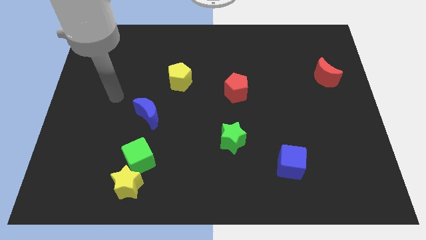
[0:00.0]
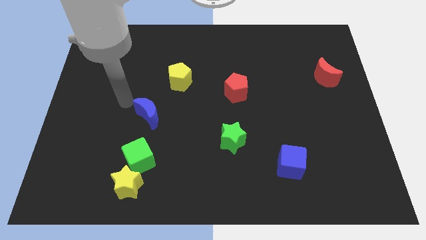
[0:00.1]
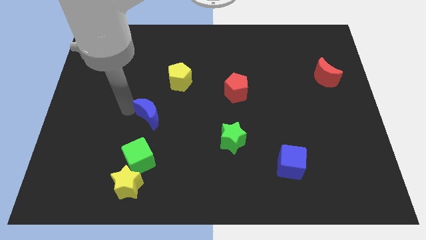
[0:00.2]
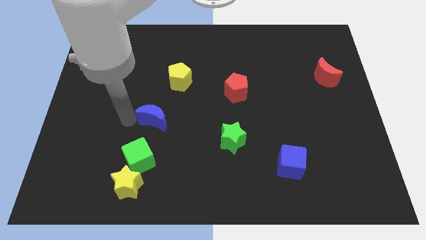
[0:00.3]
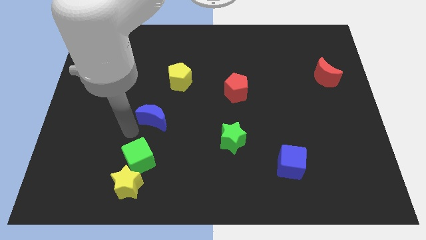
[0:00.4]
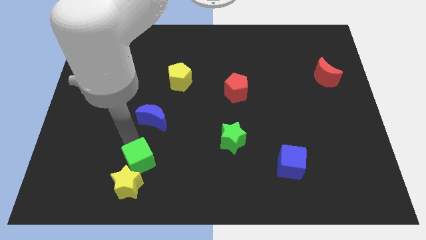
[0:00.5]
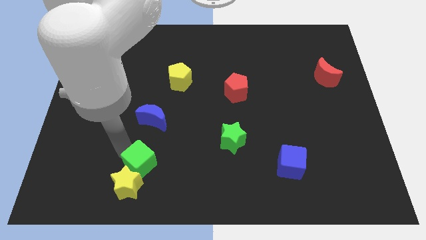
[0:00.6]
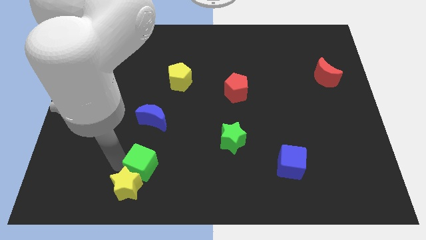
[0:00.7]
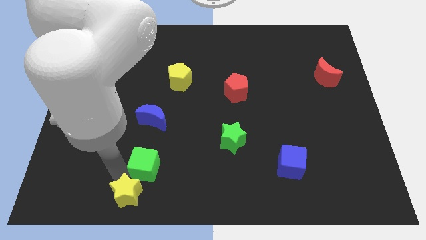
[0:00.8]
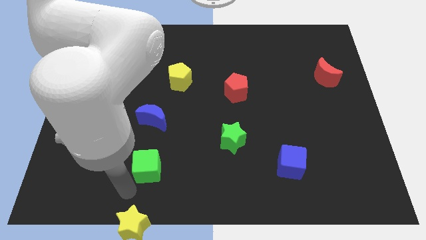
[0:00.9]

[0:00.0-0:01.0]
separate the green cube from the yellow star

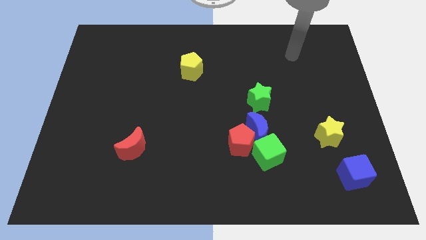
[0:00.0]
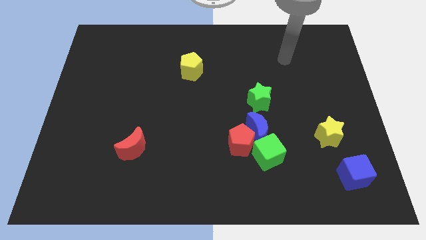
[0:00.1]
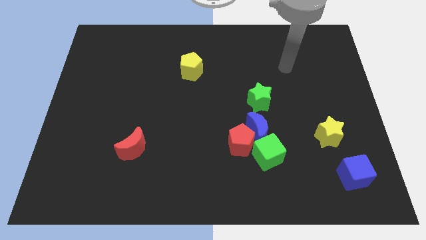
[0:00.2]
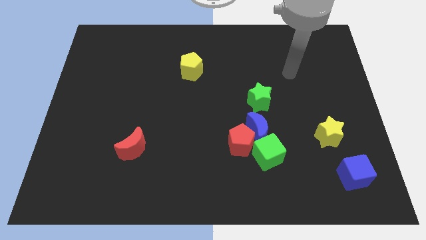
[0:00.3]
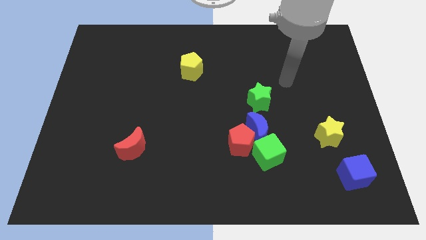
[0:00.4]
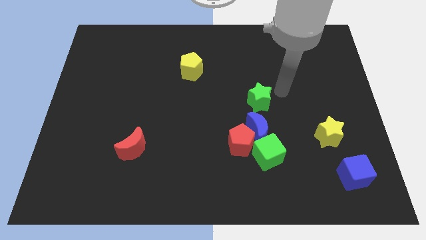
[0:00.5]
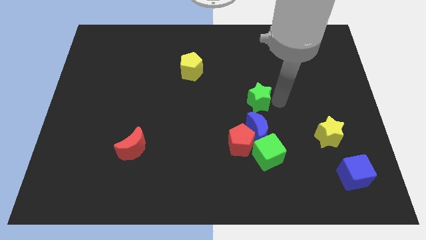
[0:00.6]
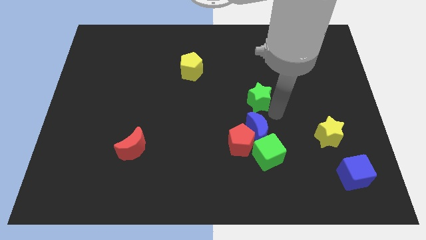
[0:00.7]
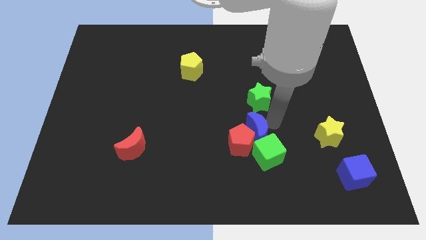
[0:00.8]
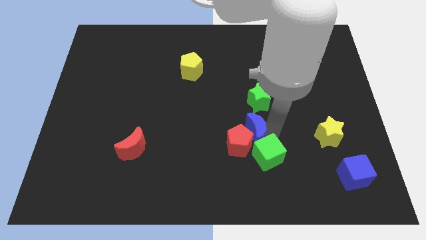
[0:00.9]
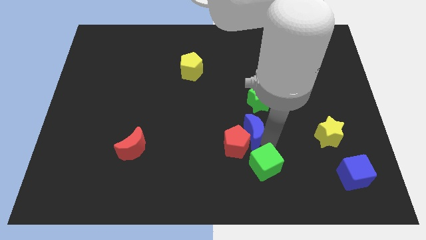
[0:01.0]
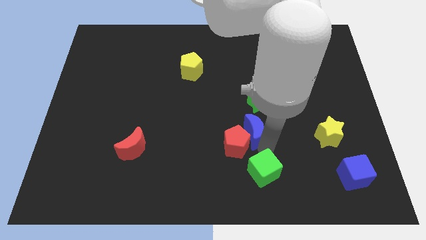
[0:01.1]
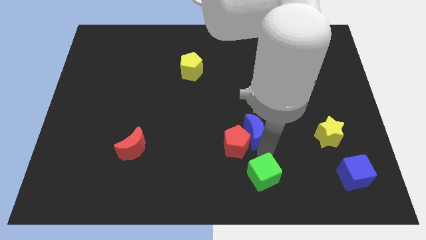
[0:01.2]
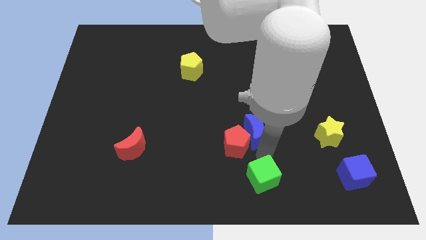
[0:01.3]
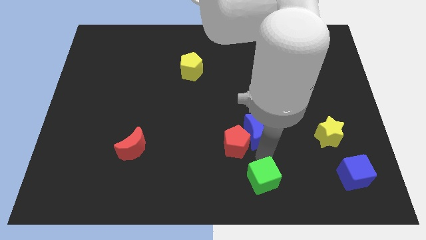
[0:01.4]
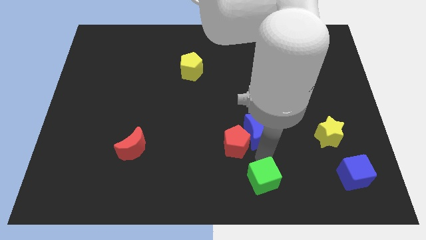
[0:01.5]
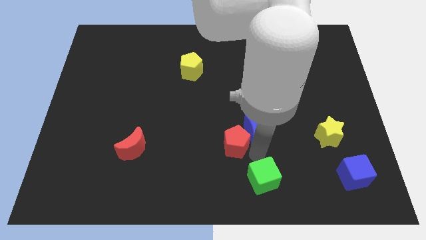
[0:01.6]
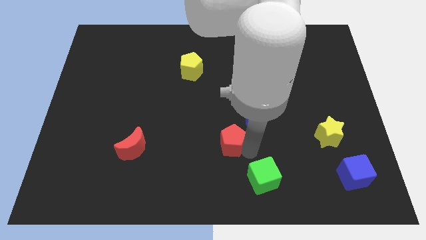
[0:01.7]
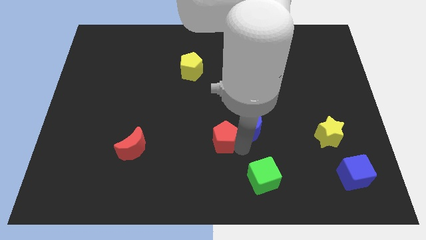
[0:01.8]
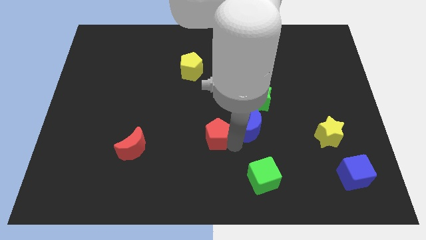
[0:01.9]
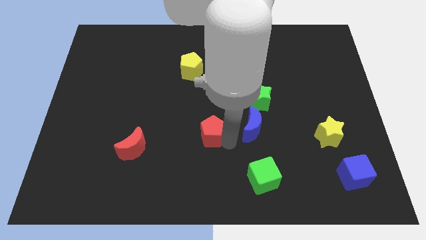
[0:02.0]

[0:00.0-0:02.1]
separate the red pentagon from the blue moon and green cube

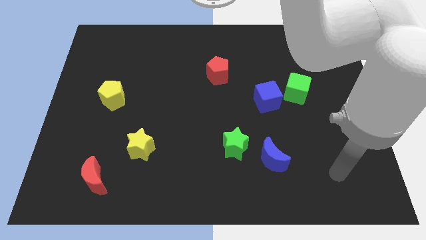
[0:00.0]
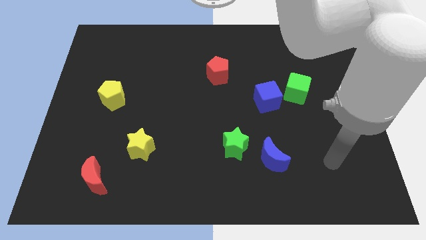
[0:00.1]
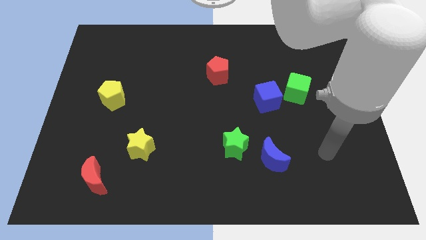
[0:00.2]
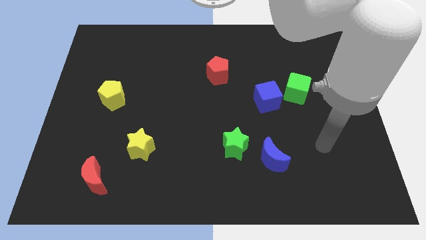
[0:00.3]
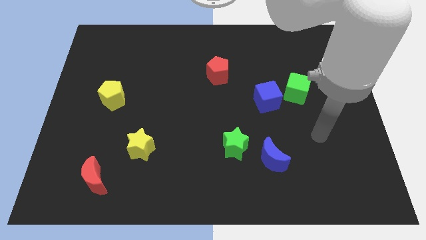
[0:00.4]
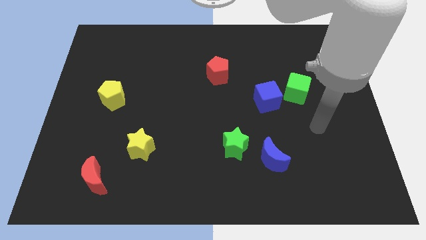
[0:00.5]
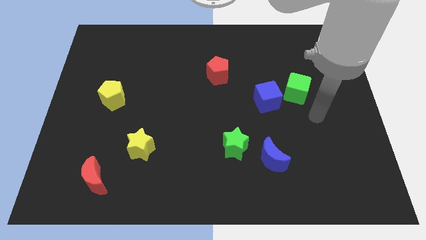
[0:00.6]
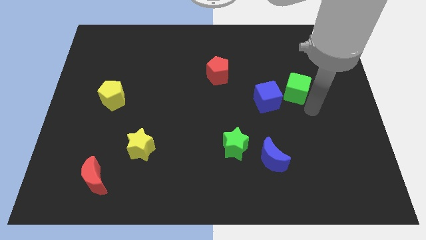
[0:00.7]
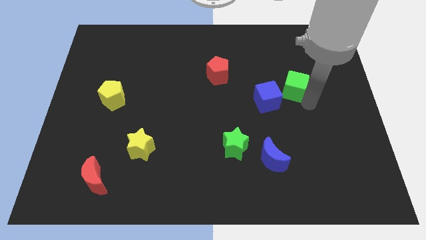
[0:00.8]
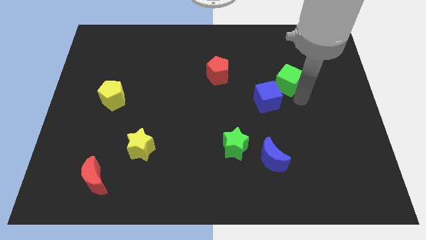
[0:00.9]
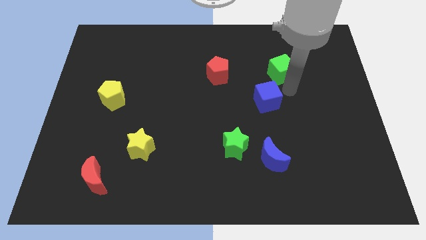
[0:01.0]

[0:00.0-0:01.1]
move the blue cube away from the green cube

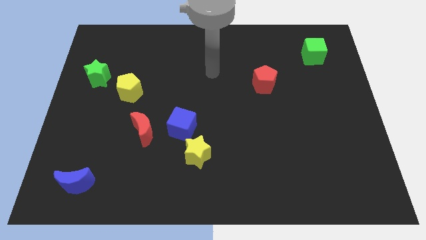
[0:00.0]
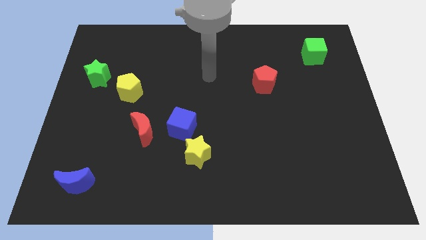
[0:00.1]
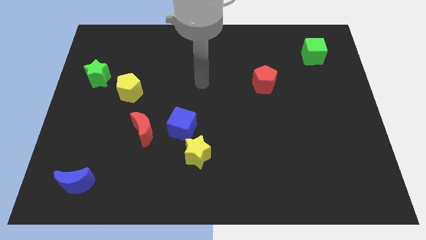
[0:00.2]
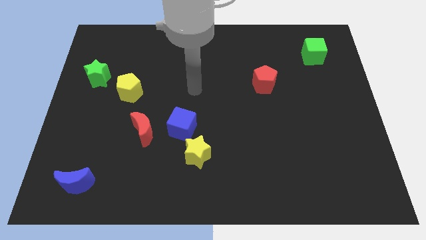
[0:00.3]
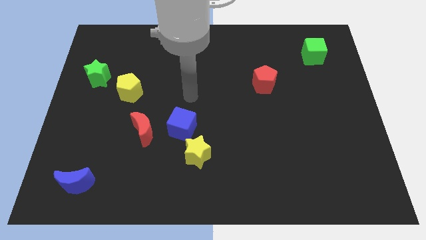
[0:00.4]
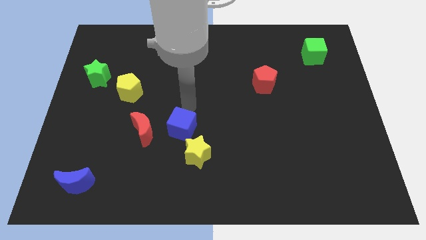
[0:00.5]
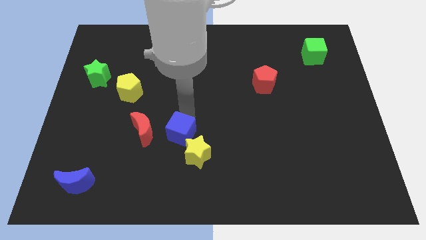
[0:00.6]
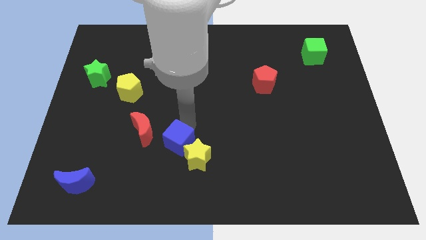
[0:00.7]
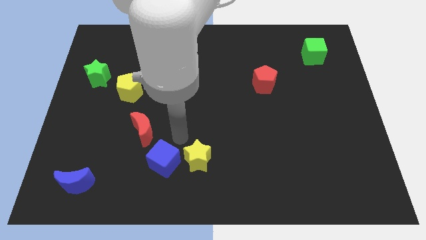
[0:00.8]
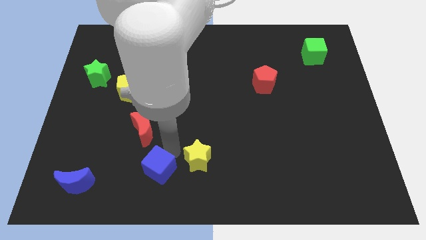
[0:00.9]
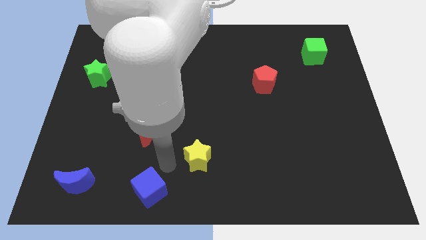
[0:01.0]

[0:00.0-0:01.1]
move the yellow star away from the blue cube

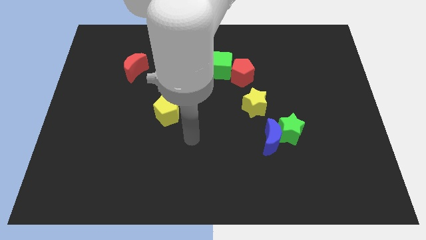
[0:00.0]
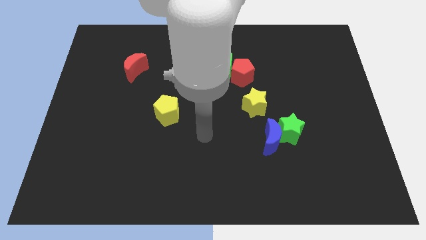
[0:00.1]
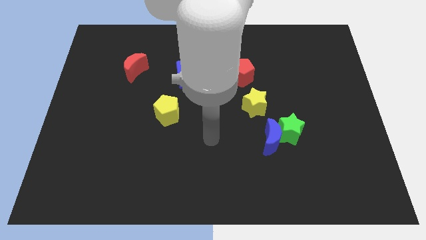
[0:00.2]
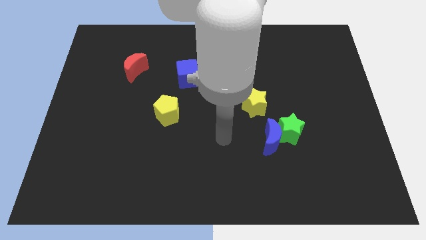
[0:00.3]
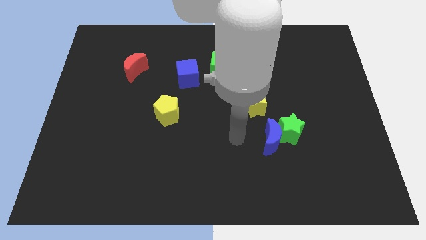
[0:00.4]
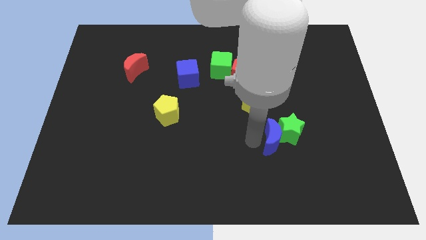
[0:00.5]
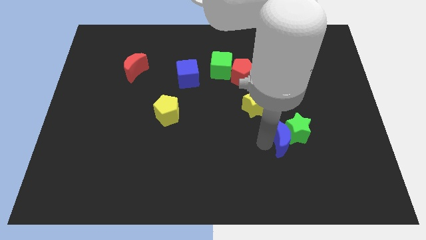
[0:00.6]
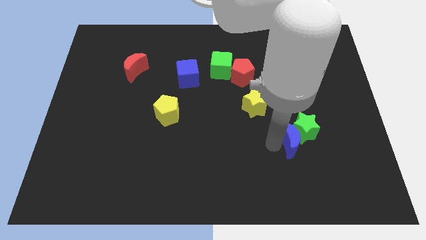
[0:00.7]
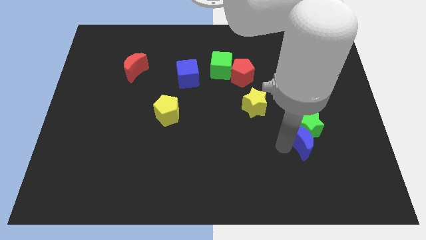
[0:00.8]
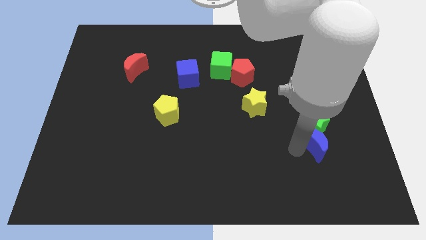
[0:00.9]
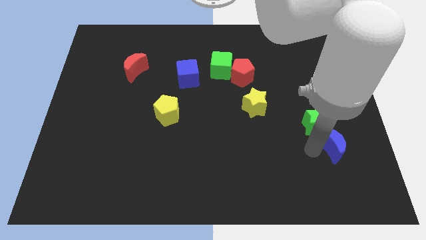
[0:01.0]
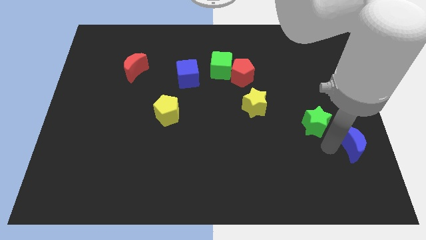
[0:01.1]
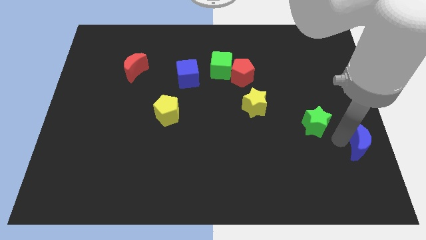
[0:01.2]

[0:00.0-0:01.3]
move the green star away from the blue moon

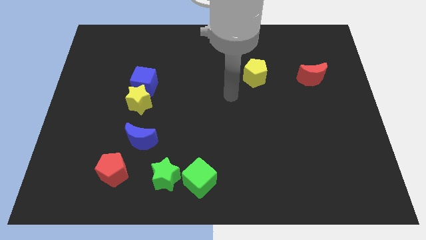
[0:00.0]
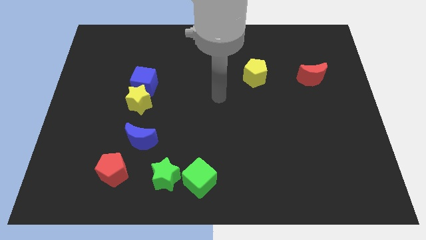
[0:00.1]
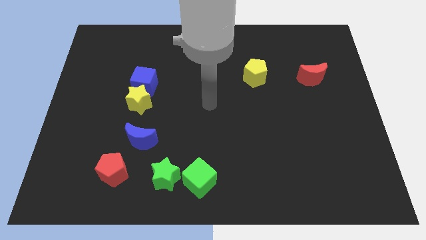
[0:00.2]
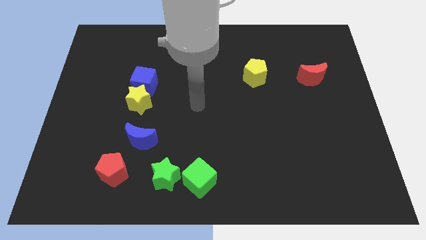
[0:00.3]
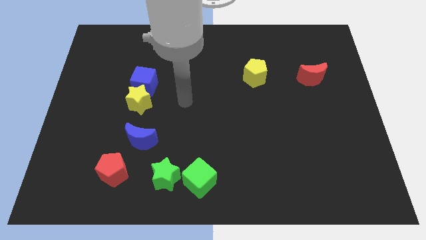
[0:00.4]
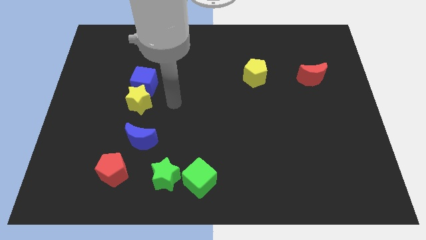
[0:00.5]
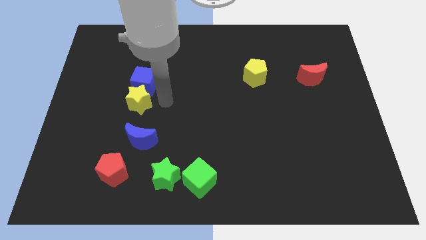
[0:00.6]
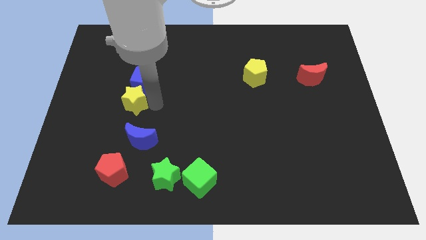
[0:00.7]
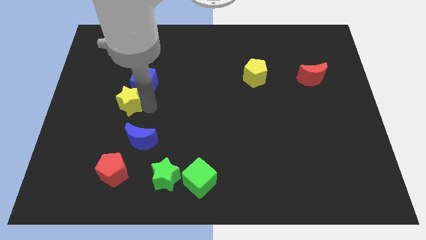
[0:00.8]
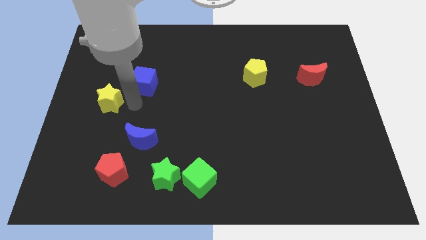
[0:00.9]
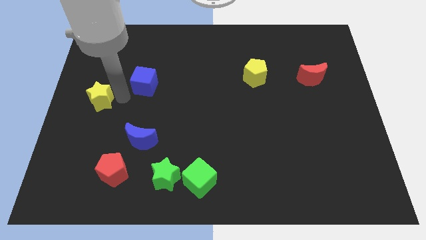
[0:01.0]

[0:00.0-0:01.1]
move the blue cube away from the yellow star

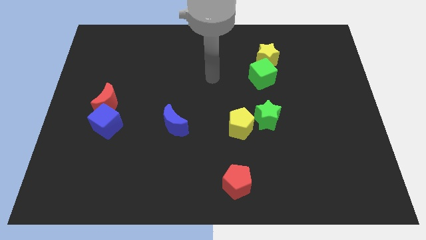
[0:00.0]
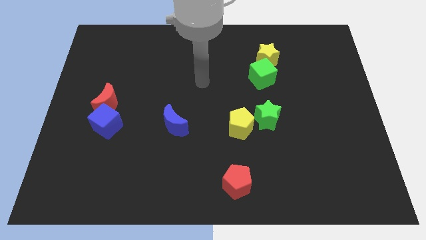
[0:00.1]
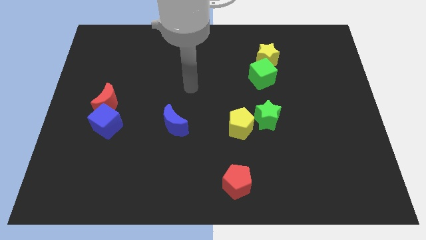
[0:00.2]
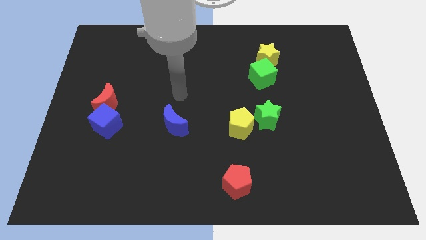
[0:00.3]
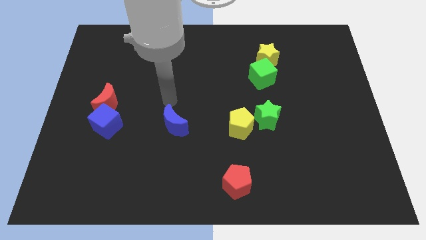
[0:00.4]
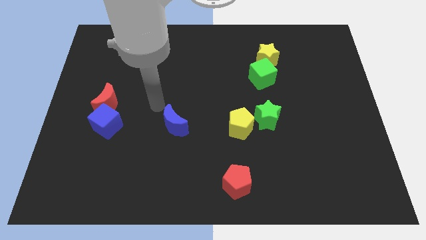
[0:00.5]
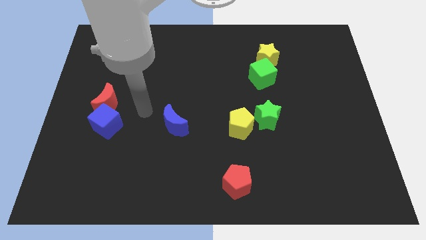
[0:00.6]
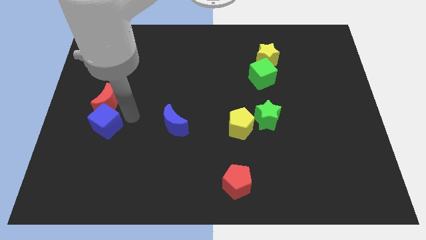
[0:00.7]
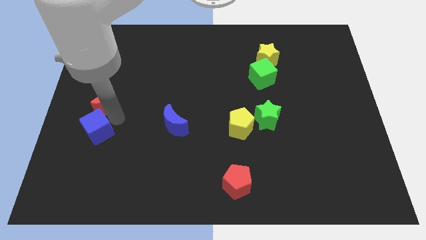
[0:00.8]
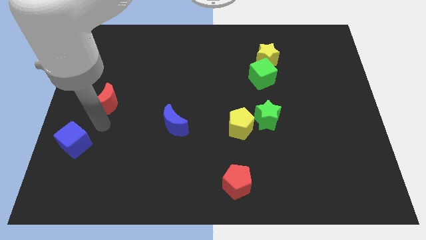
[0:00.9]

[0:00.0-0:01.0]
pull the red moon apart from the blue cube

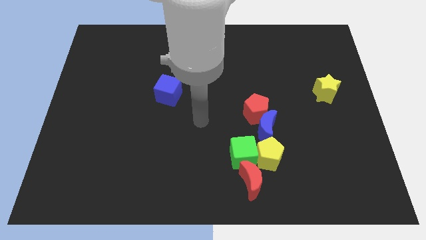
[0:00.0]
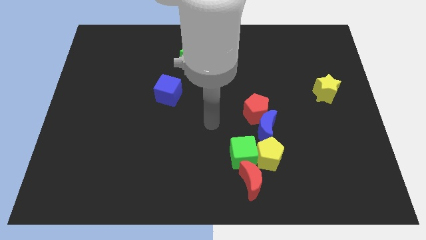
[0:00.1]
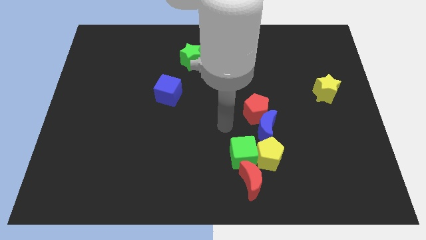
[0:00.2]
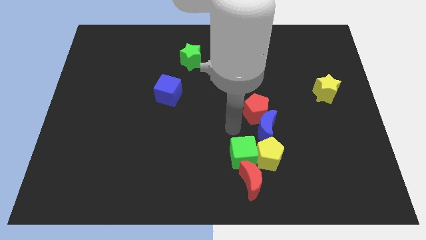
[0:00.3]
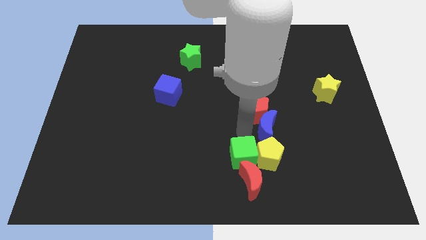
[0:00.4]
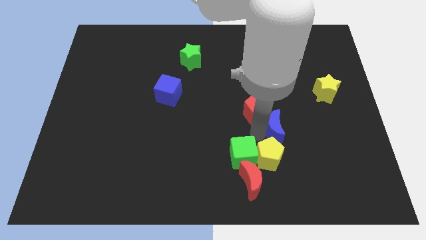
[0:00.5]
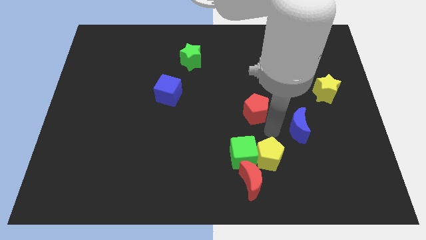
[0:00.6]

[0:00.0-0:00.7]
separate the red pentagon from the blue moon
